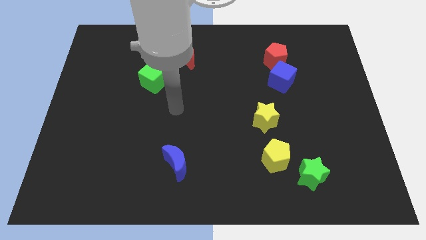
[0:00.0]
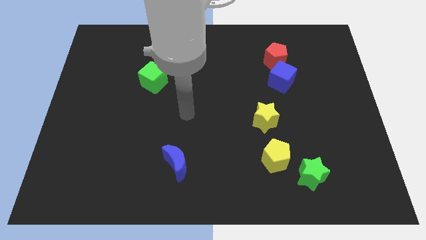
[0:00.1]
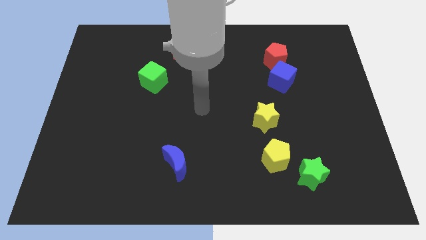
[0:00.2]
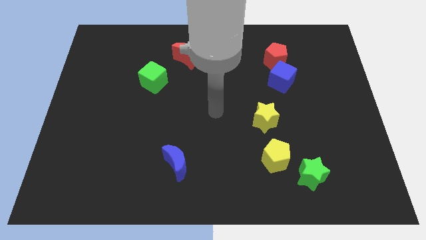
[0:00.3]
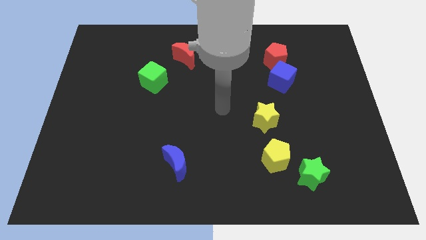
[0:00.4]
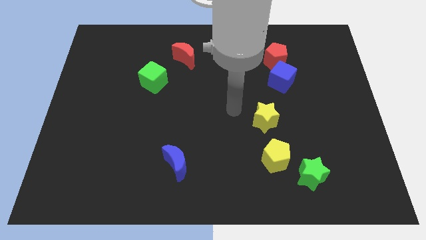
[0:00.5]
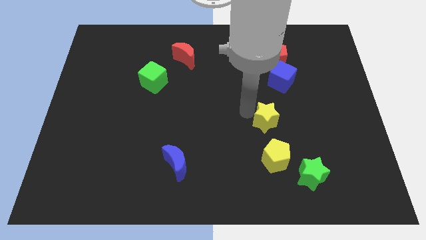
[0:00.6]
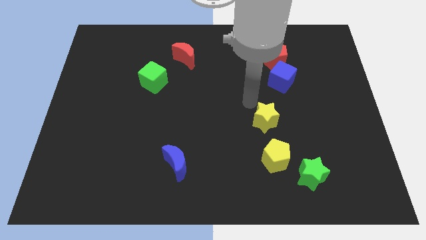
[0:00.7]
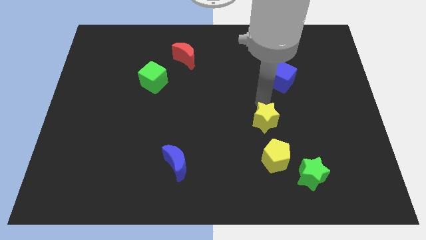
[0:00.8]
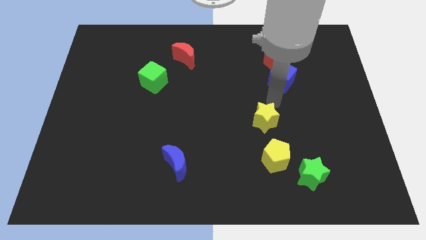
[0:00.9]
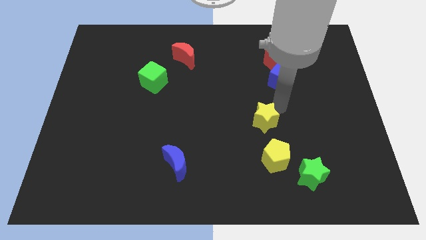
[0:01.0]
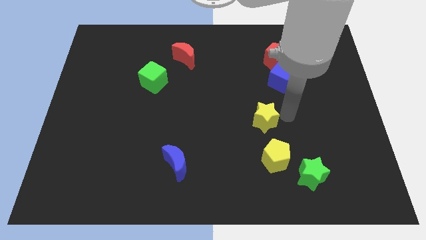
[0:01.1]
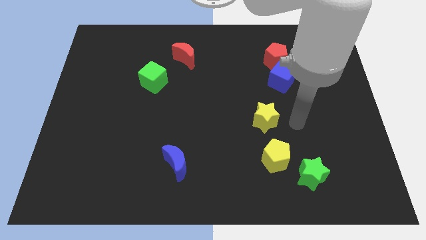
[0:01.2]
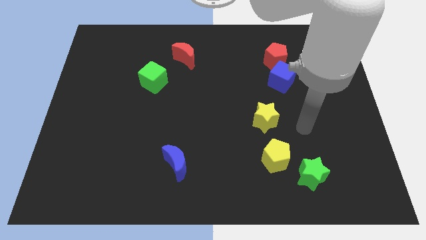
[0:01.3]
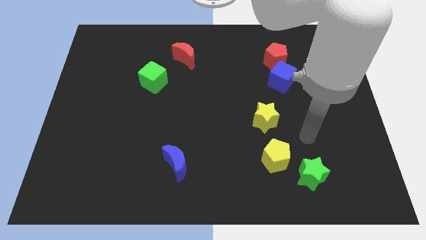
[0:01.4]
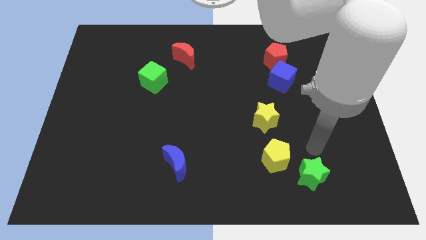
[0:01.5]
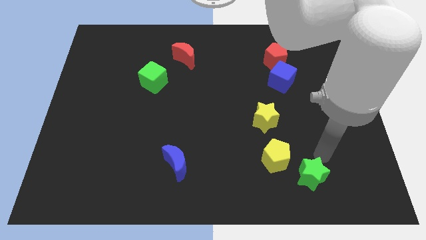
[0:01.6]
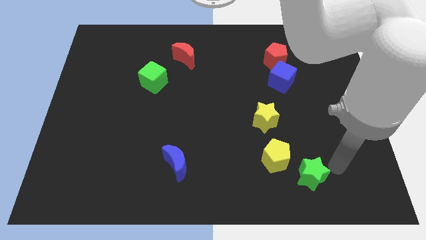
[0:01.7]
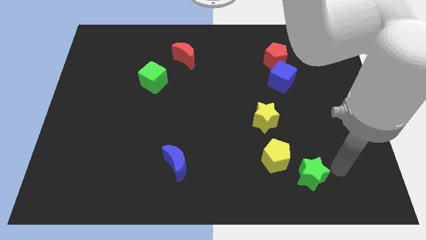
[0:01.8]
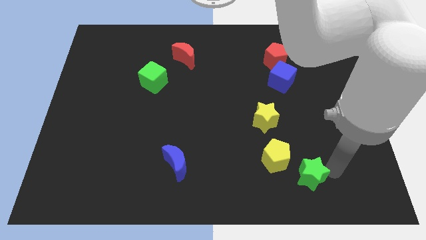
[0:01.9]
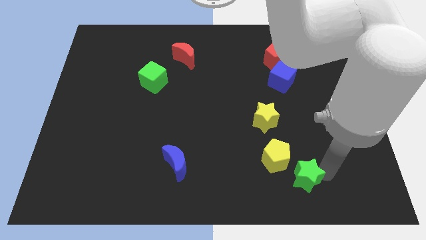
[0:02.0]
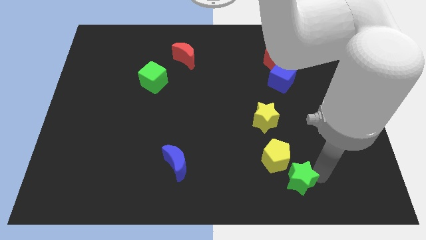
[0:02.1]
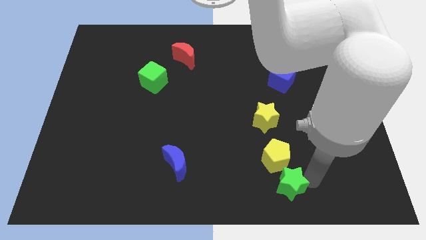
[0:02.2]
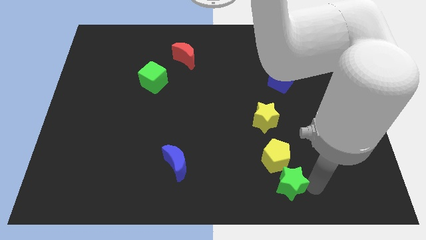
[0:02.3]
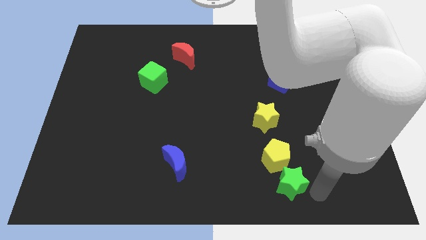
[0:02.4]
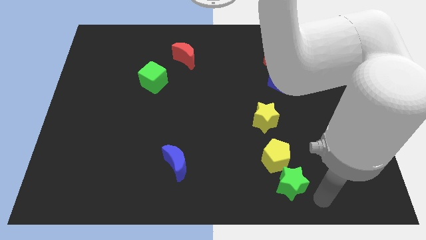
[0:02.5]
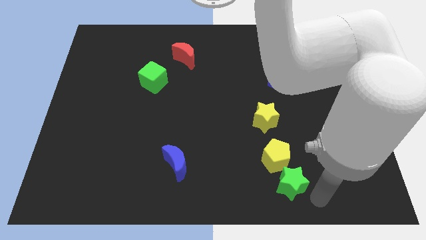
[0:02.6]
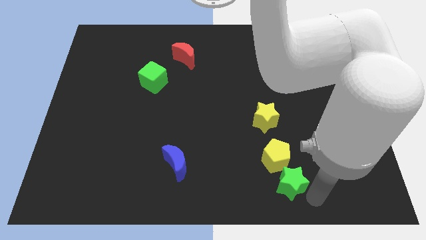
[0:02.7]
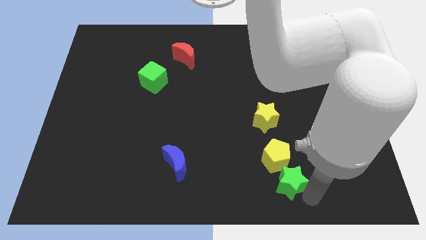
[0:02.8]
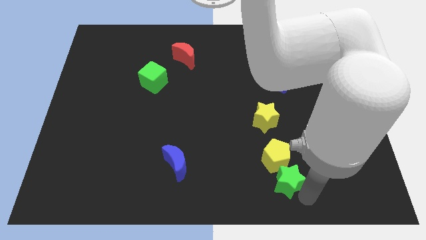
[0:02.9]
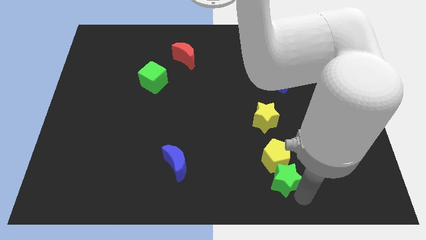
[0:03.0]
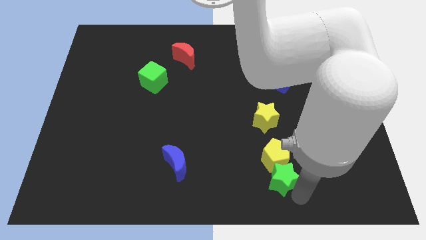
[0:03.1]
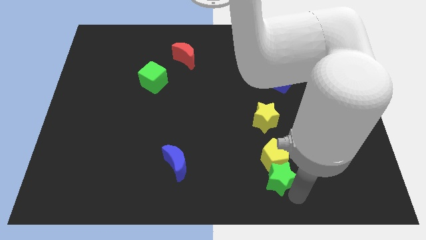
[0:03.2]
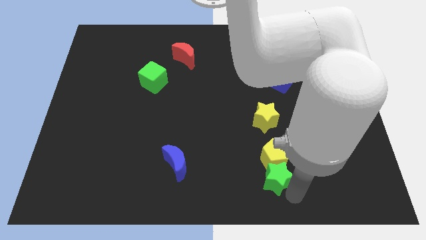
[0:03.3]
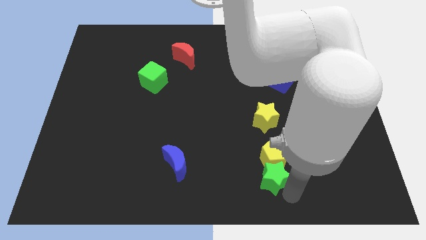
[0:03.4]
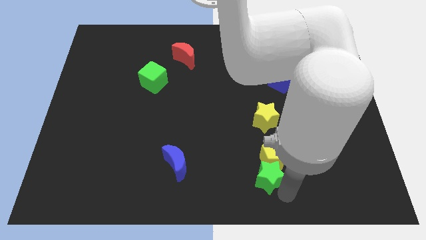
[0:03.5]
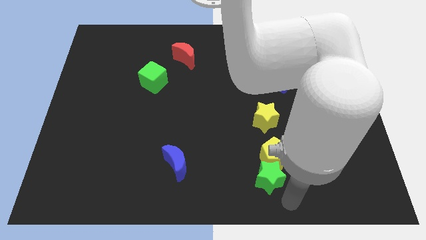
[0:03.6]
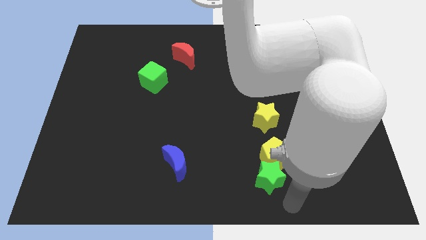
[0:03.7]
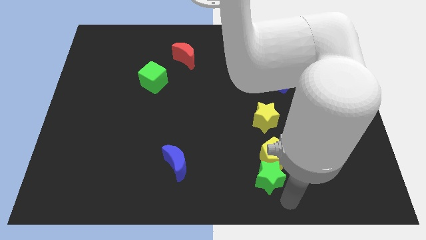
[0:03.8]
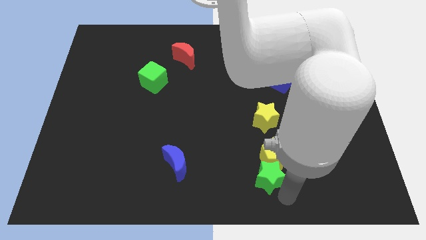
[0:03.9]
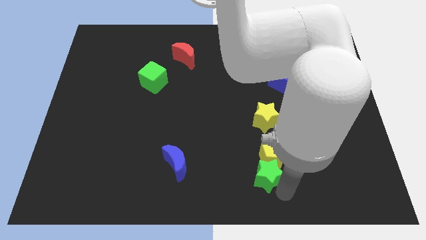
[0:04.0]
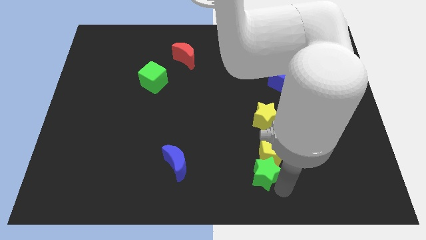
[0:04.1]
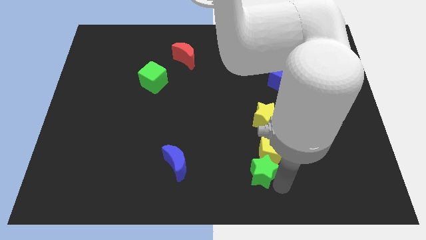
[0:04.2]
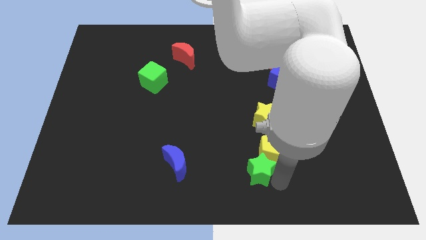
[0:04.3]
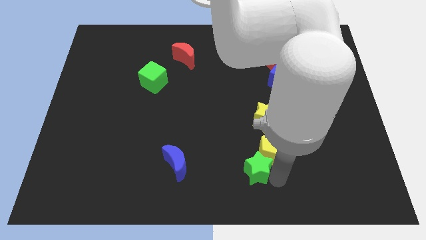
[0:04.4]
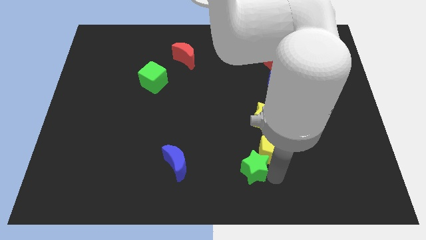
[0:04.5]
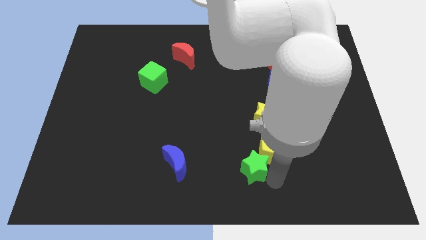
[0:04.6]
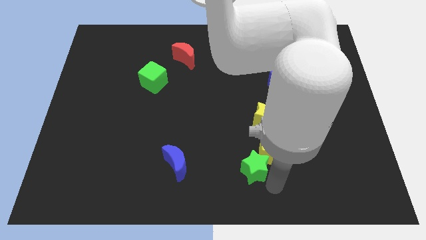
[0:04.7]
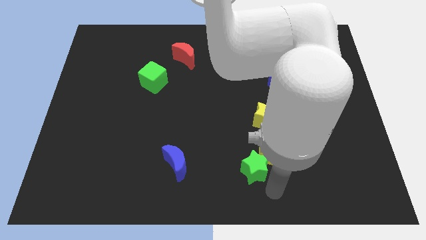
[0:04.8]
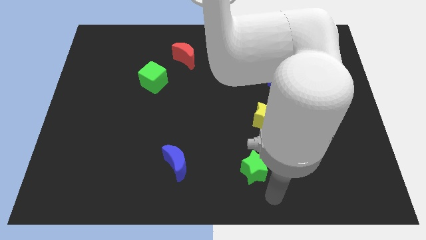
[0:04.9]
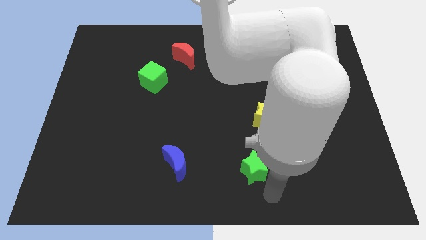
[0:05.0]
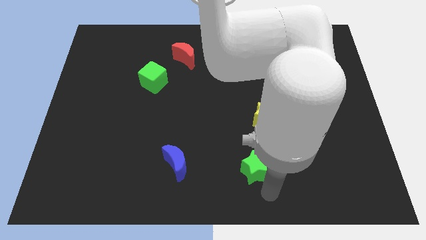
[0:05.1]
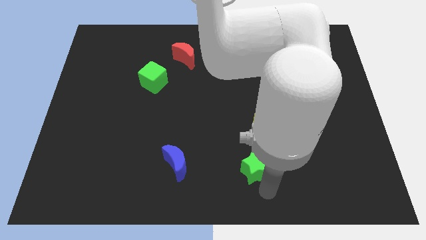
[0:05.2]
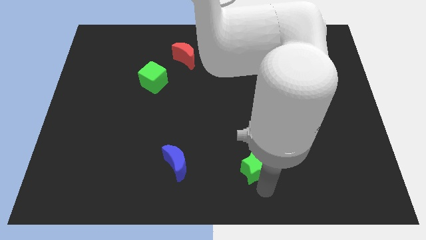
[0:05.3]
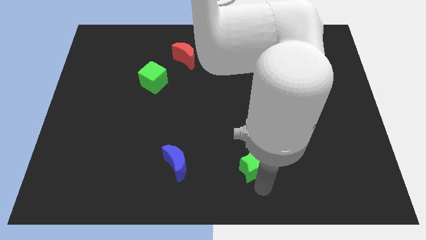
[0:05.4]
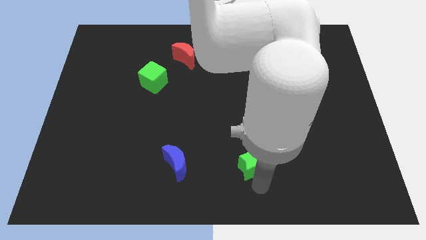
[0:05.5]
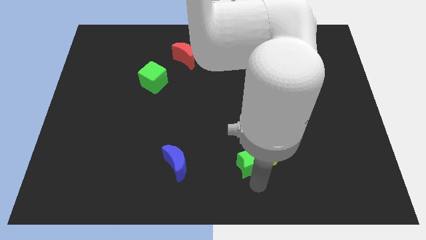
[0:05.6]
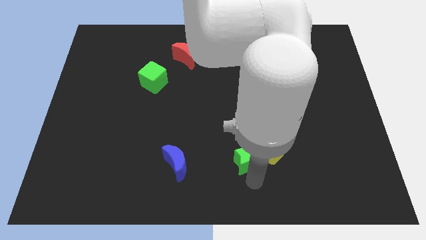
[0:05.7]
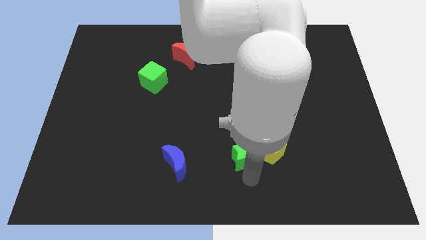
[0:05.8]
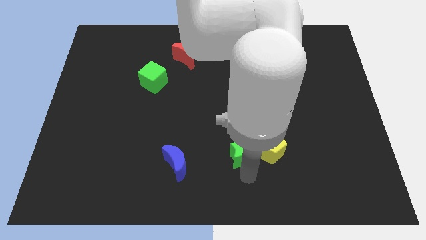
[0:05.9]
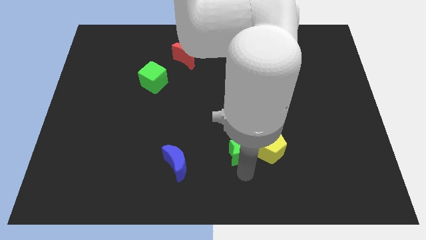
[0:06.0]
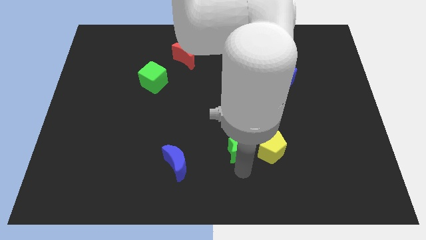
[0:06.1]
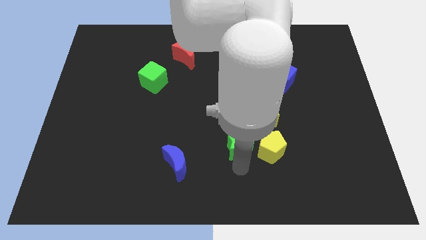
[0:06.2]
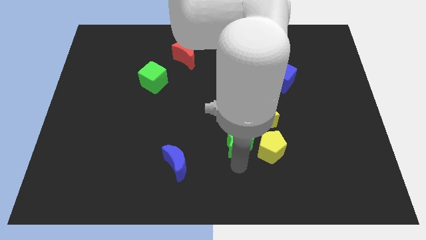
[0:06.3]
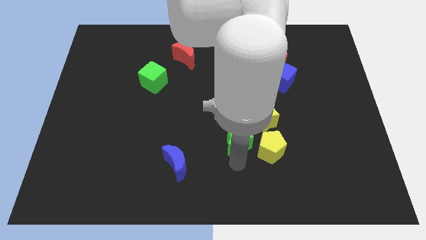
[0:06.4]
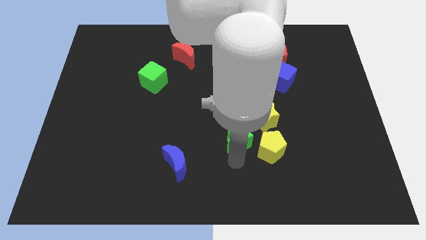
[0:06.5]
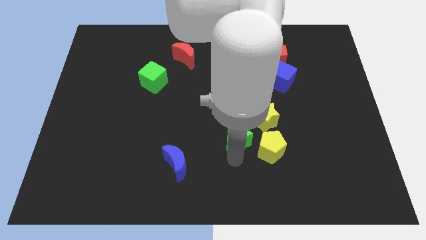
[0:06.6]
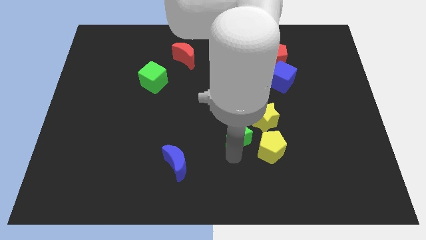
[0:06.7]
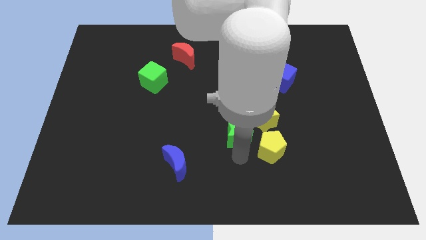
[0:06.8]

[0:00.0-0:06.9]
put the green star to the left of the yellow star
